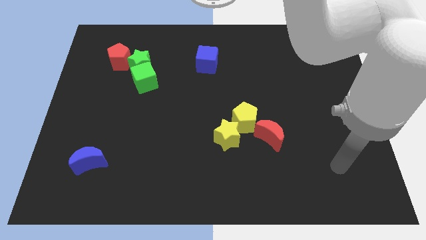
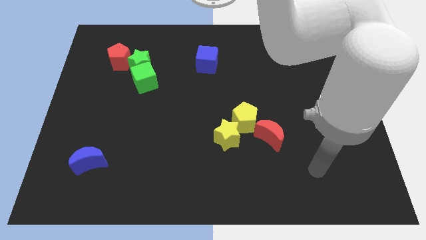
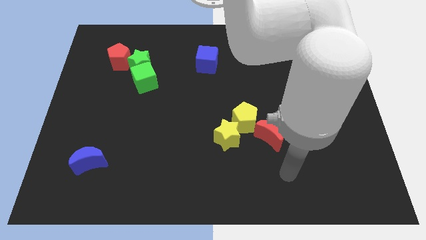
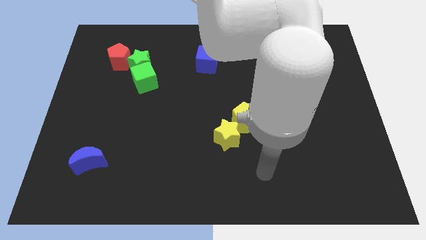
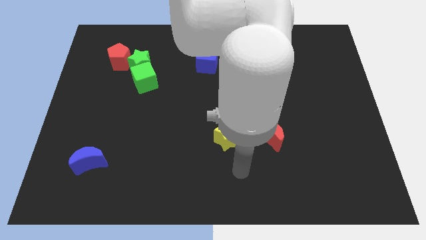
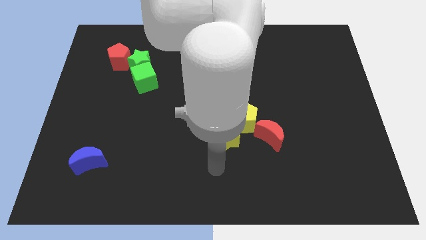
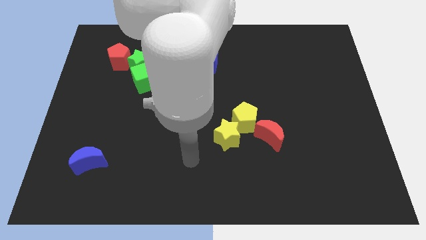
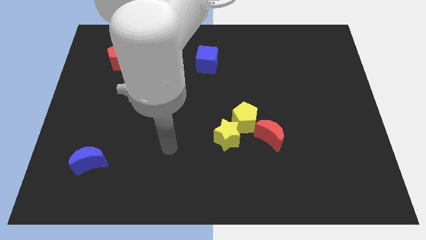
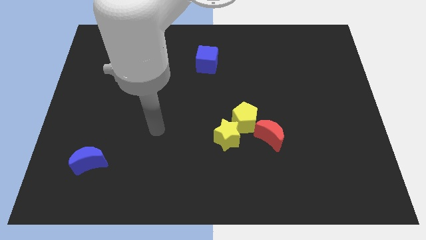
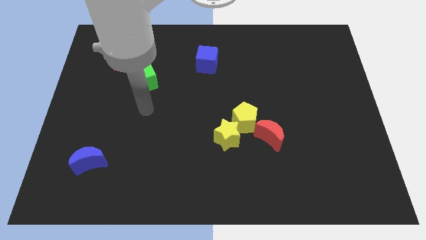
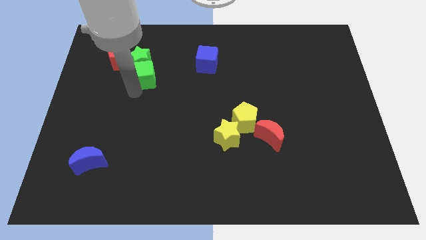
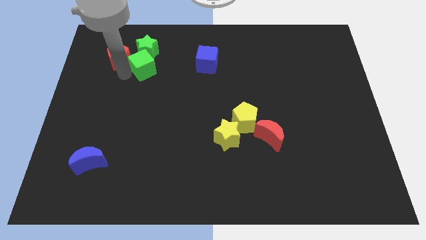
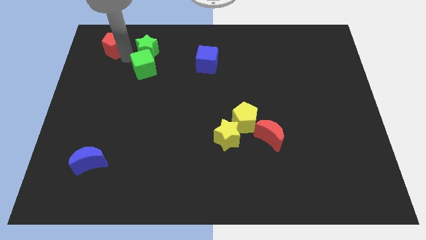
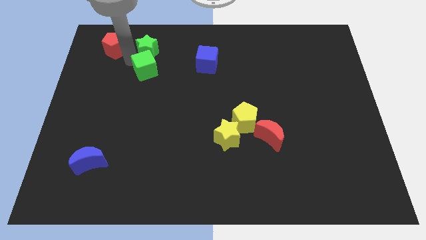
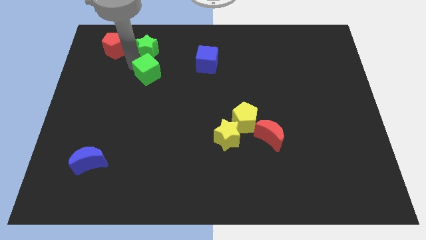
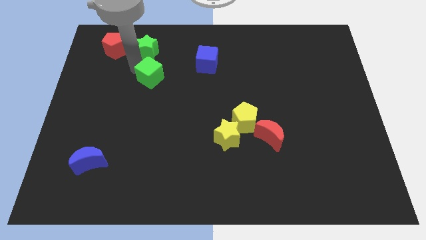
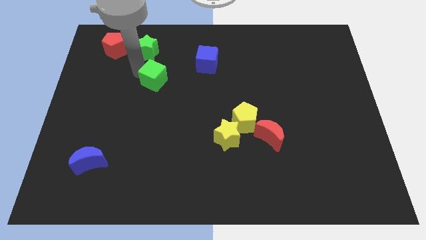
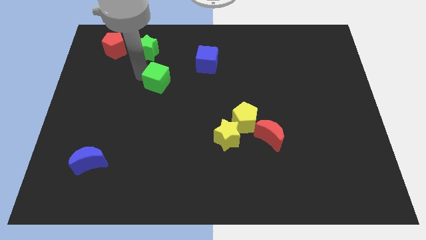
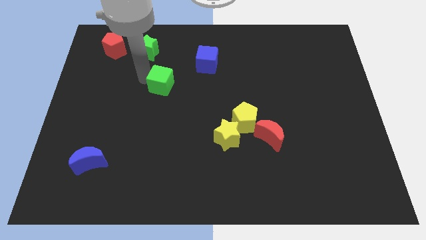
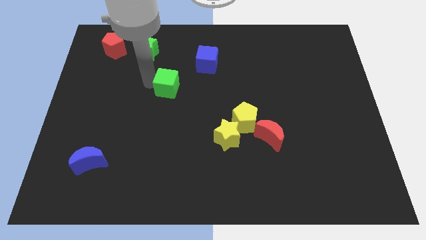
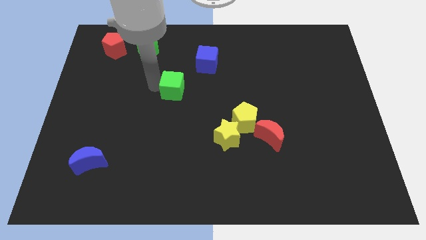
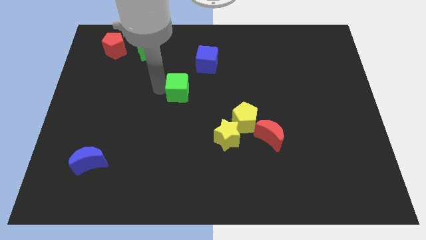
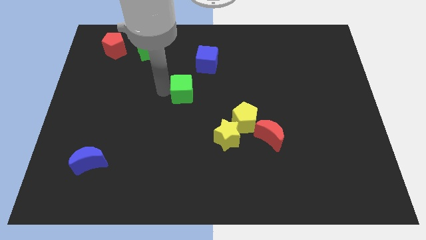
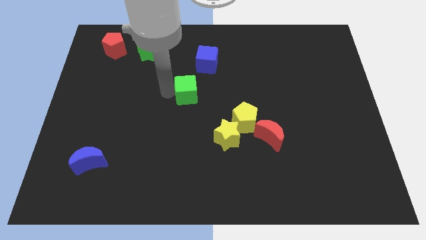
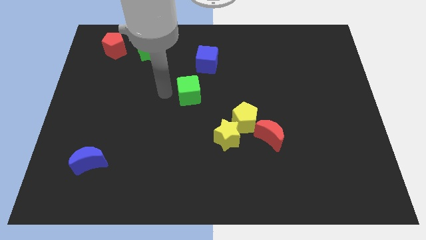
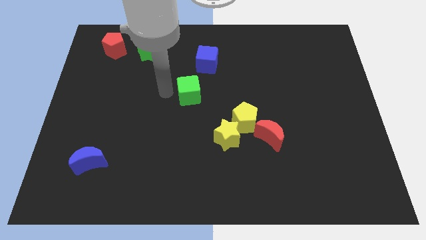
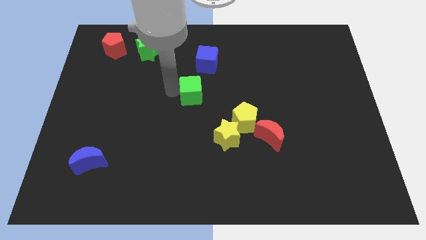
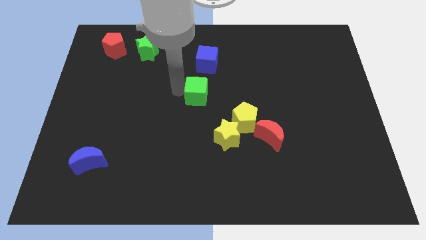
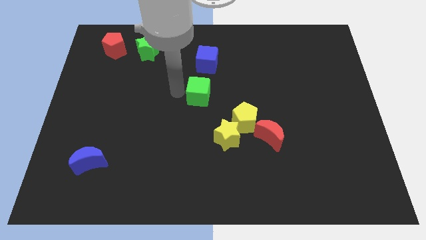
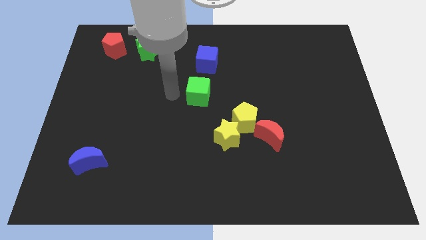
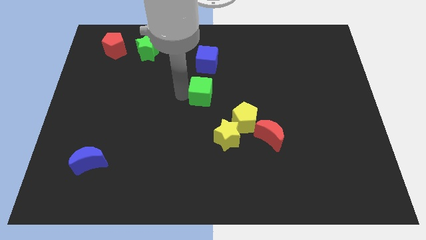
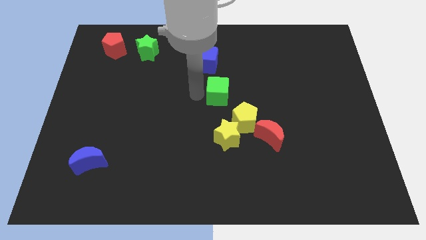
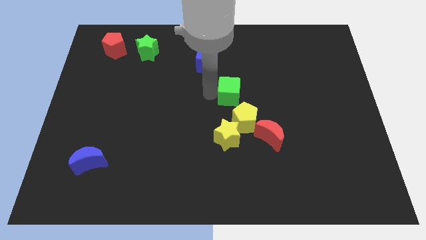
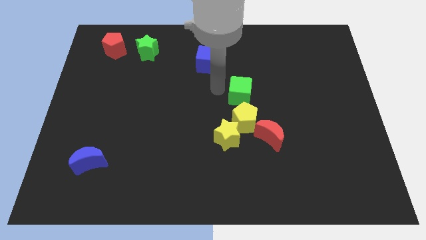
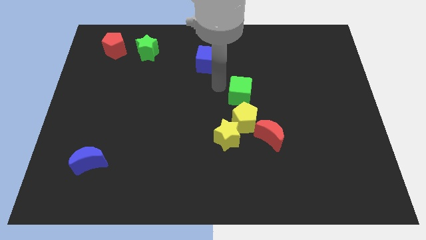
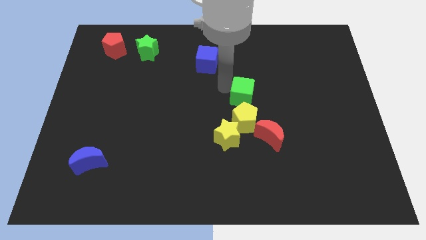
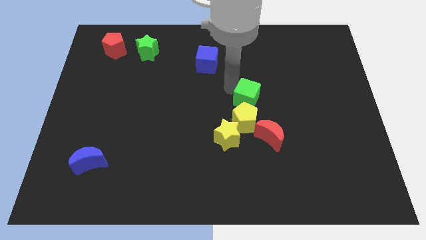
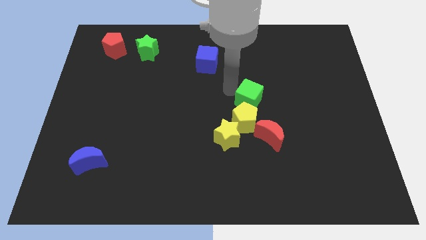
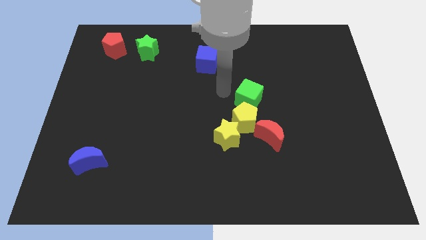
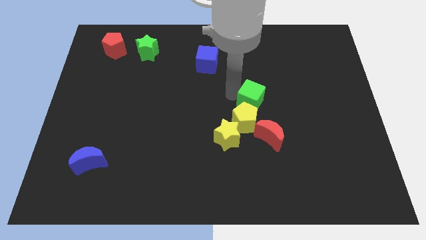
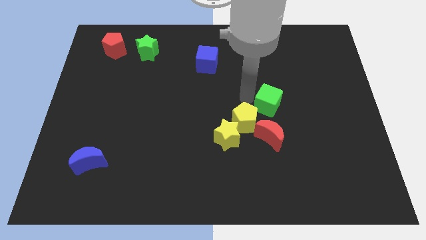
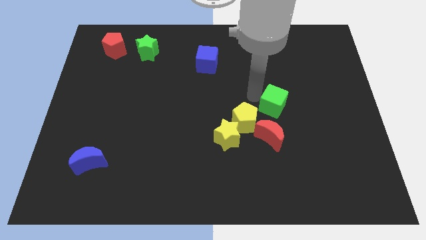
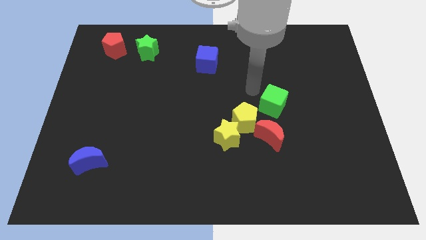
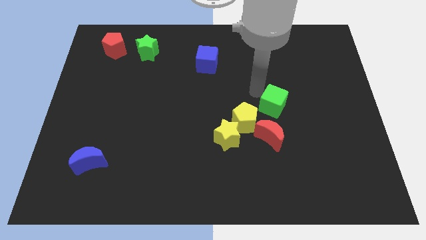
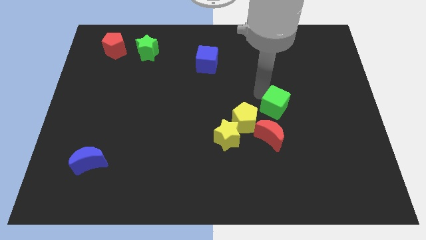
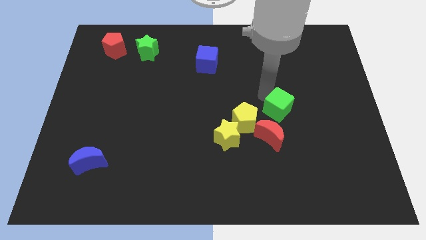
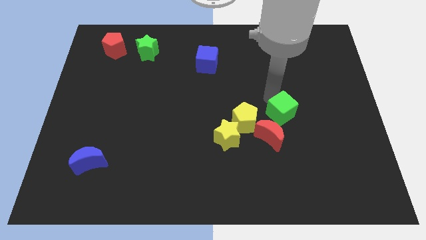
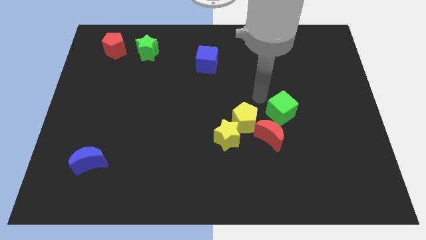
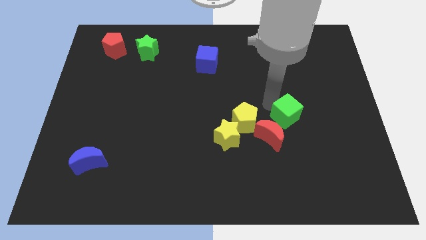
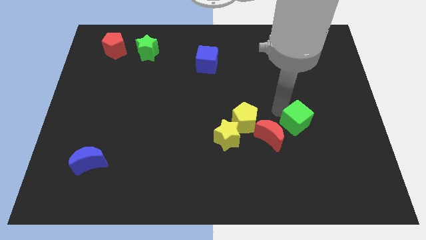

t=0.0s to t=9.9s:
slide the green cube right of the red moon

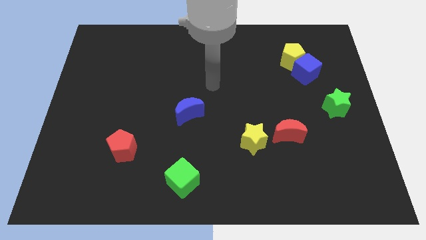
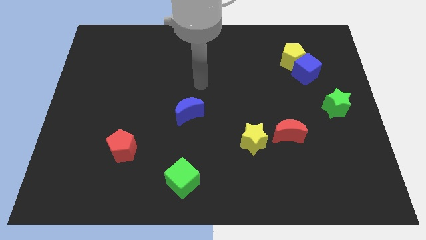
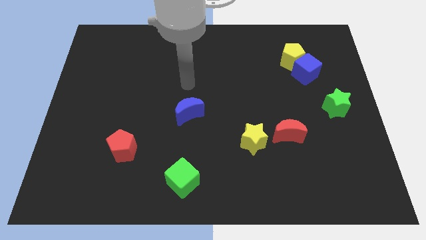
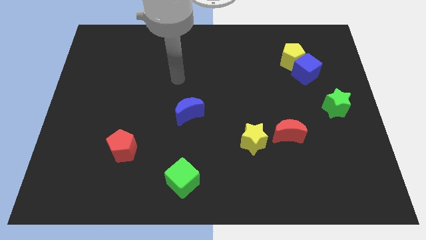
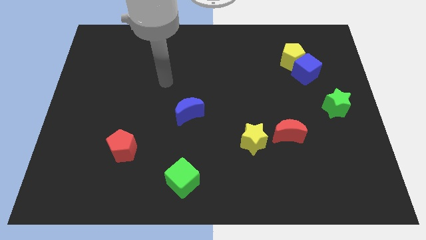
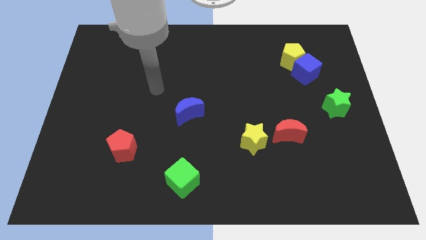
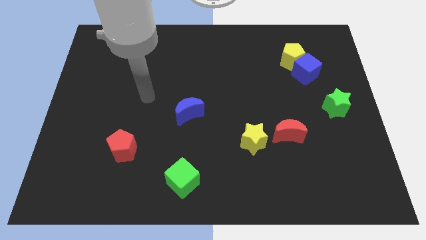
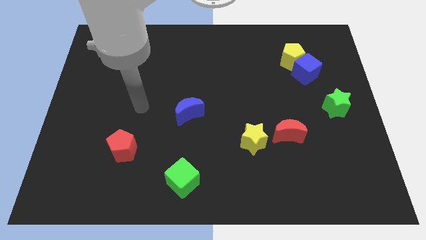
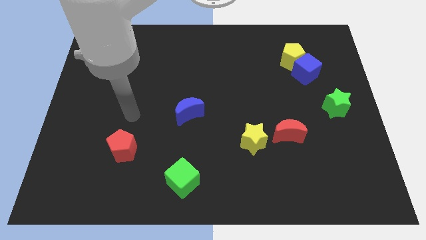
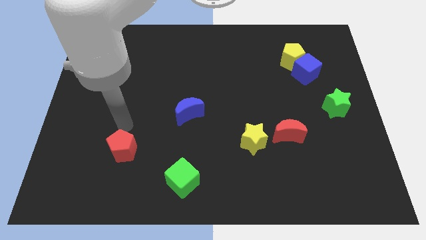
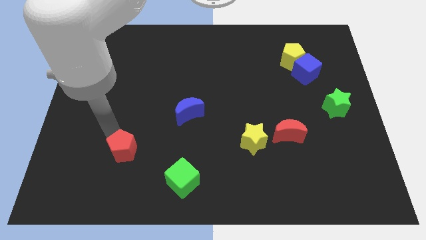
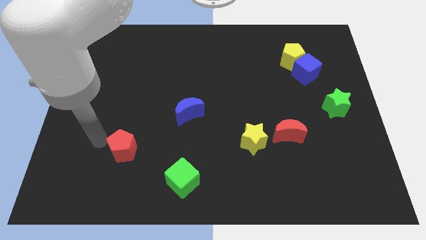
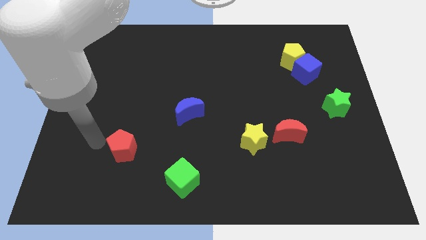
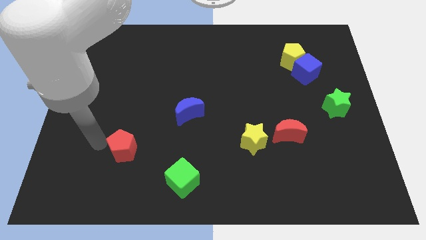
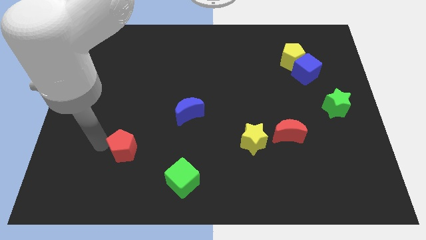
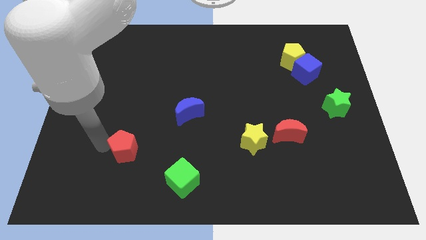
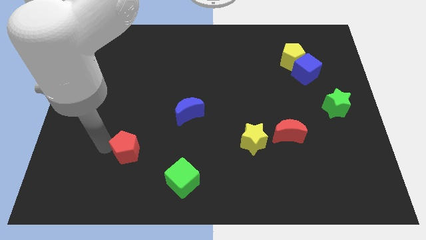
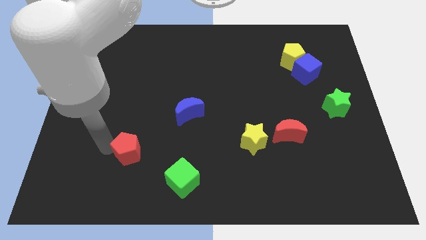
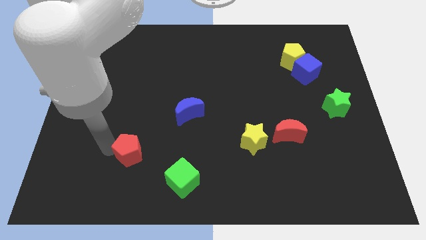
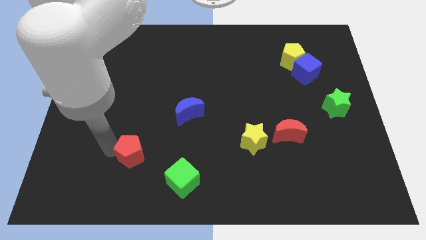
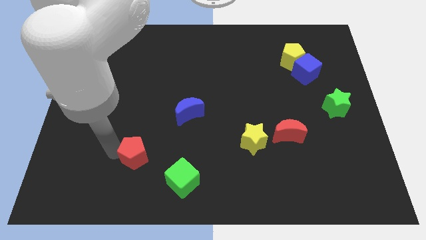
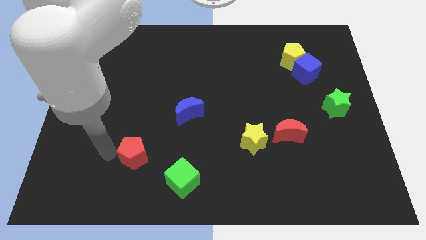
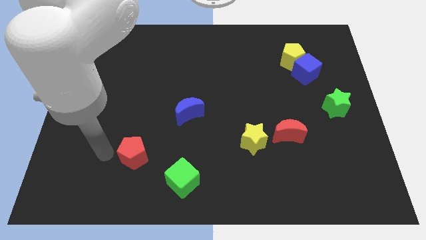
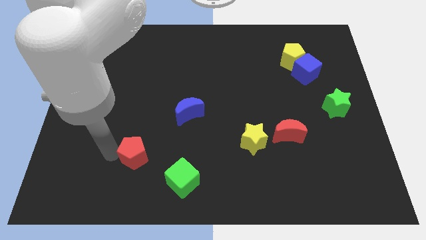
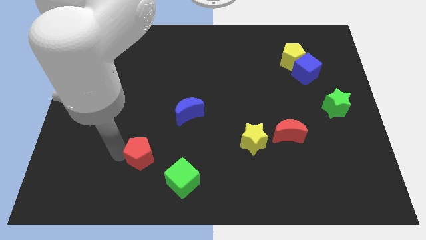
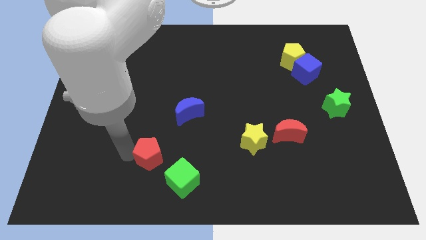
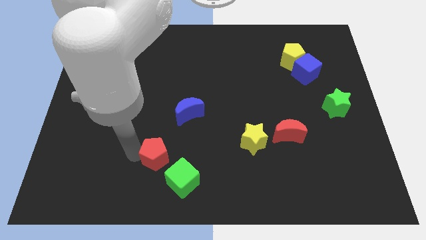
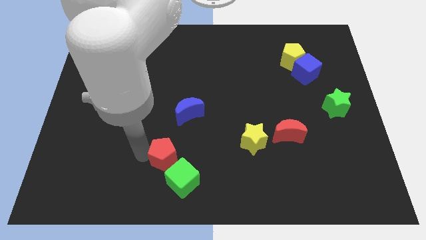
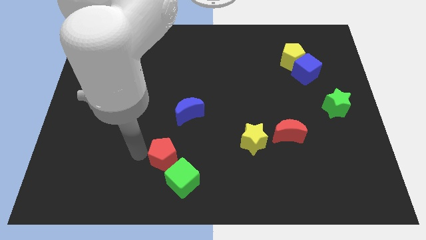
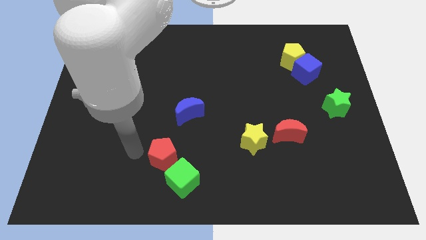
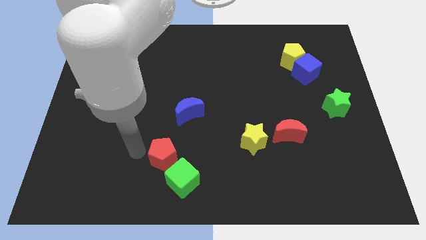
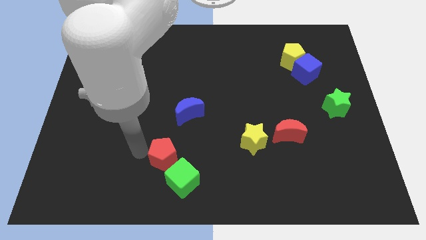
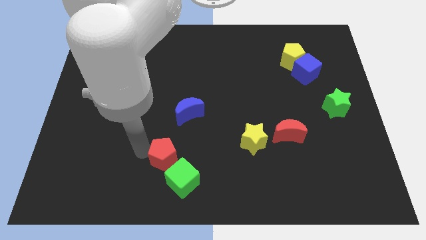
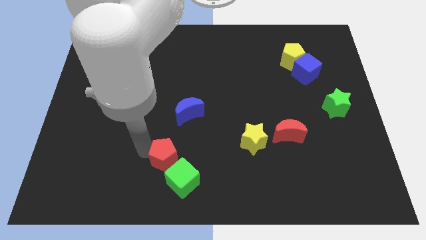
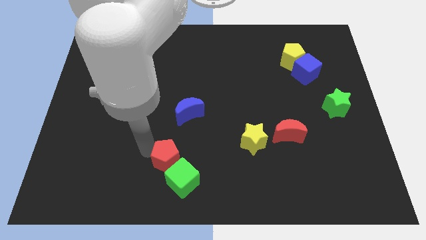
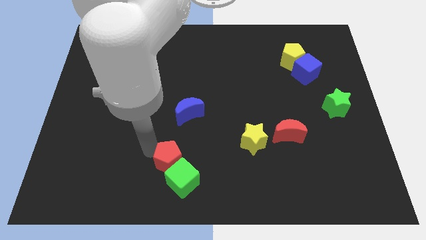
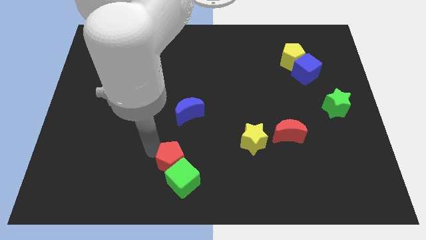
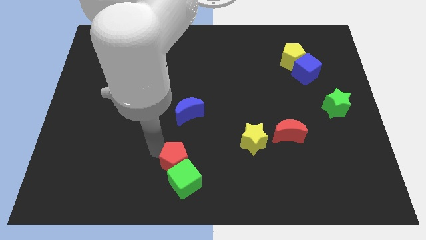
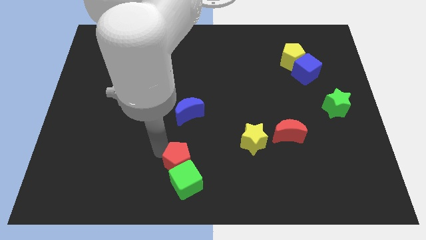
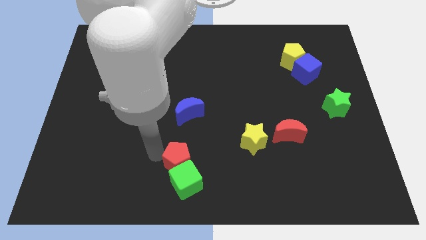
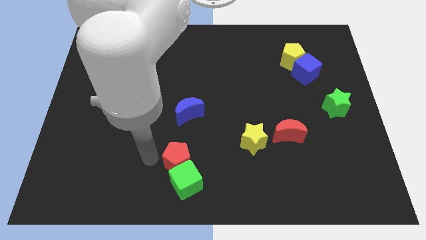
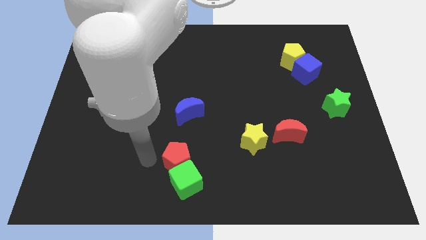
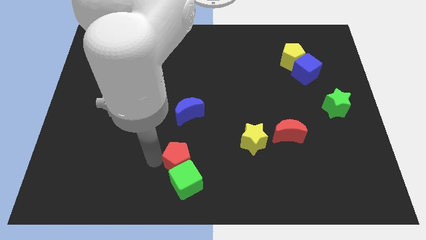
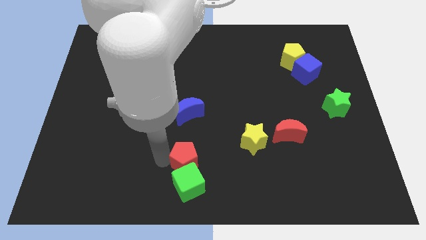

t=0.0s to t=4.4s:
move the red pentagon to the top right side of the green cube
